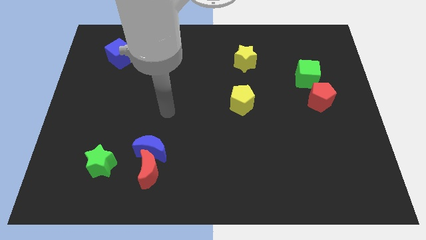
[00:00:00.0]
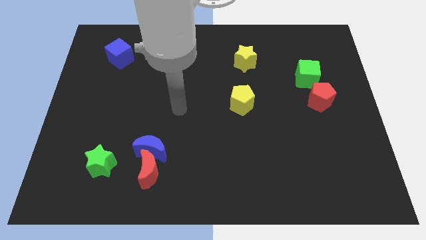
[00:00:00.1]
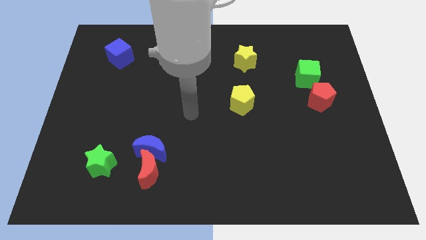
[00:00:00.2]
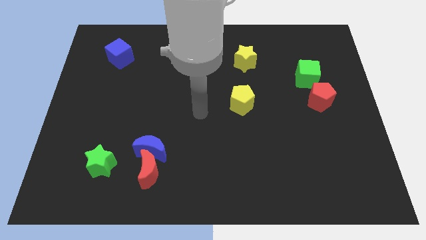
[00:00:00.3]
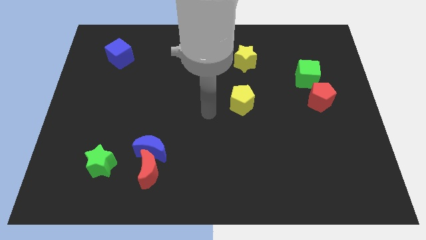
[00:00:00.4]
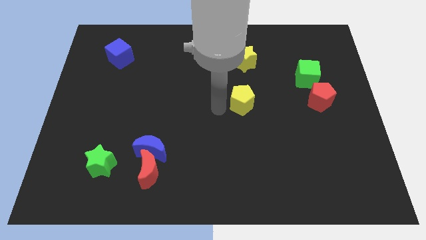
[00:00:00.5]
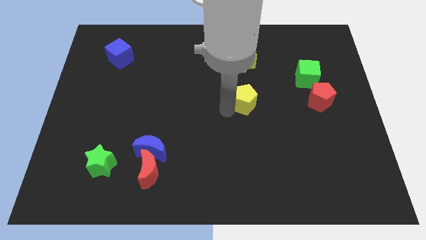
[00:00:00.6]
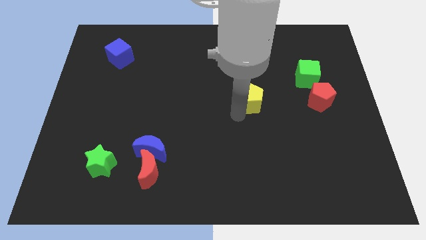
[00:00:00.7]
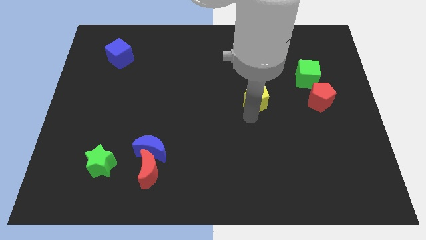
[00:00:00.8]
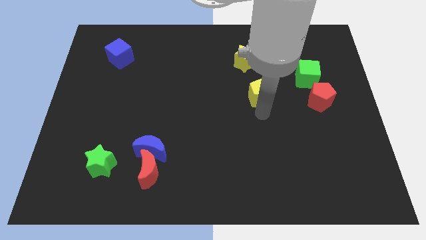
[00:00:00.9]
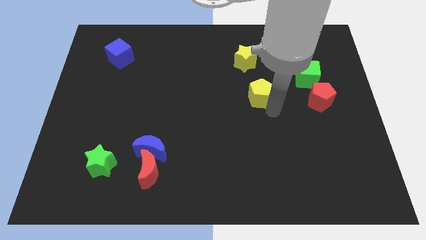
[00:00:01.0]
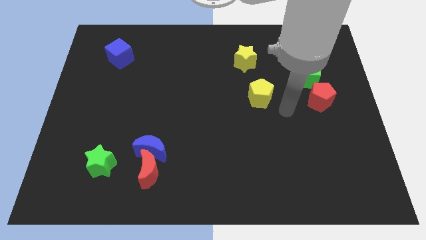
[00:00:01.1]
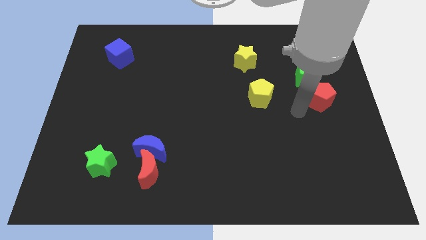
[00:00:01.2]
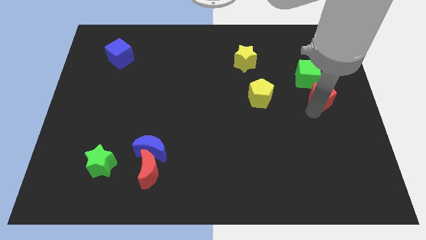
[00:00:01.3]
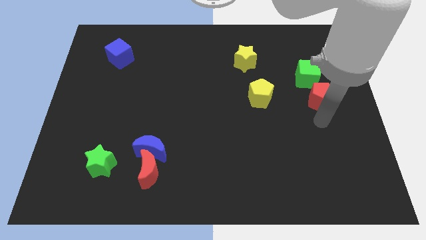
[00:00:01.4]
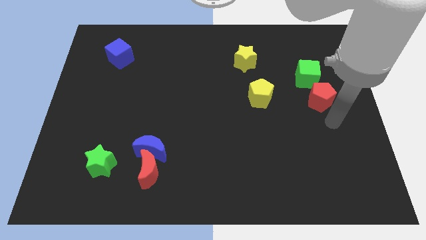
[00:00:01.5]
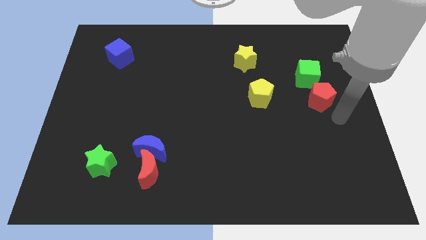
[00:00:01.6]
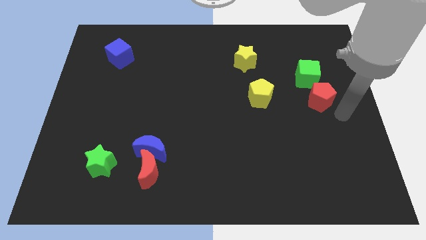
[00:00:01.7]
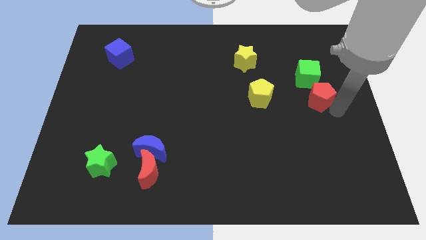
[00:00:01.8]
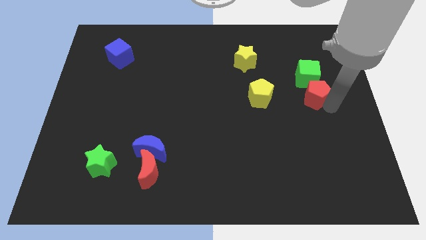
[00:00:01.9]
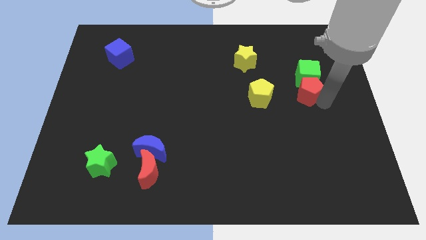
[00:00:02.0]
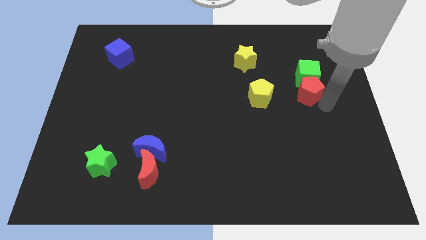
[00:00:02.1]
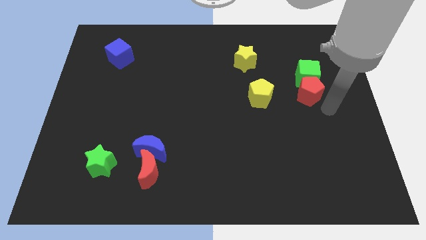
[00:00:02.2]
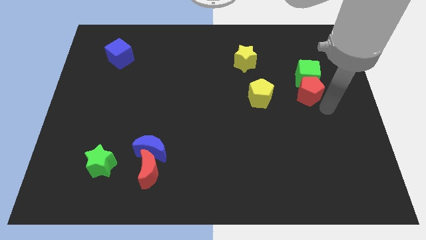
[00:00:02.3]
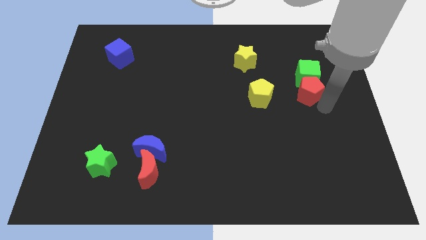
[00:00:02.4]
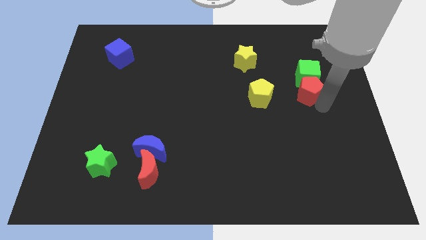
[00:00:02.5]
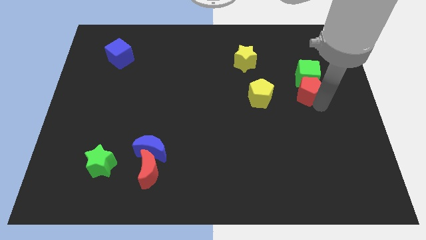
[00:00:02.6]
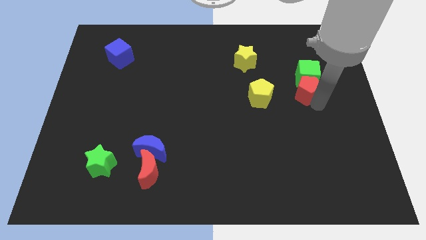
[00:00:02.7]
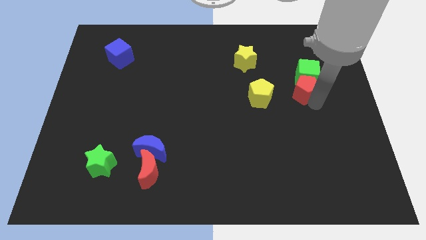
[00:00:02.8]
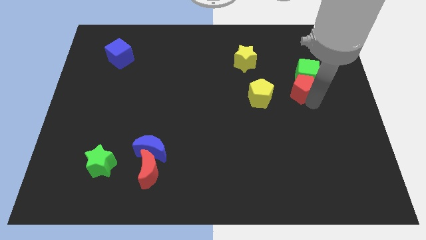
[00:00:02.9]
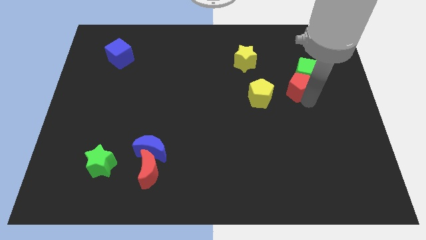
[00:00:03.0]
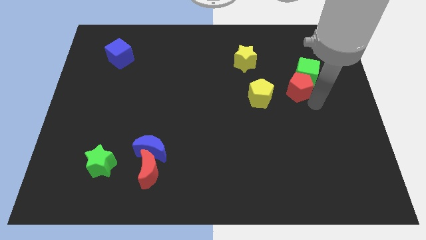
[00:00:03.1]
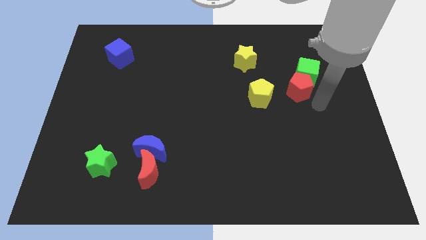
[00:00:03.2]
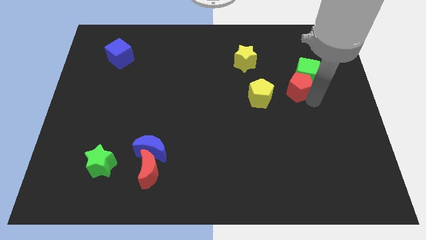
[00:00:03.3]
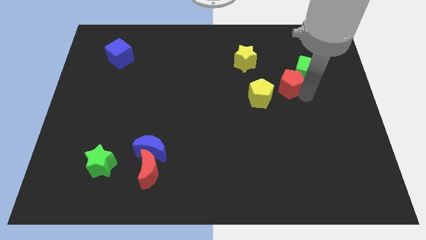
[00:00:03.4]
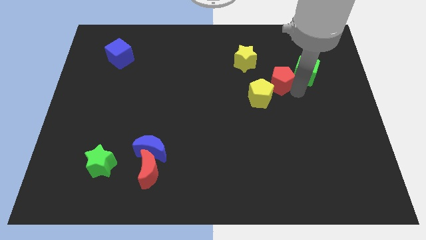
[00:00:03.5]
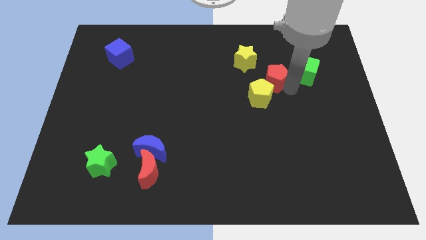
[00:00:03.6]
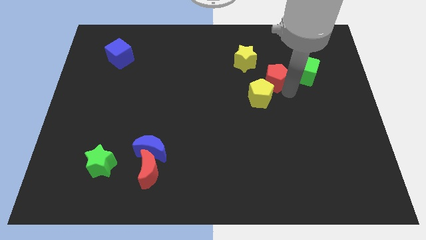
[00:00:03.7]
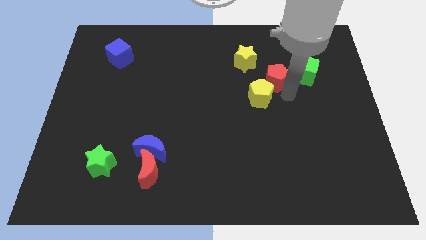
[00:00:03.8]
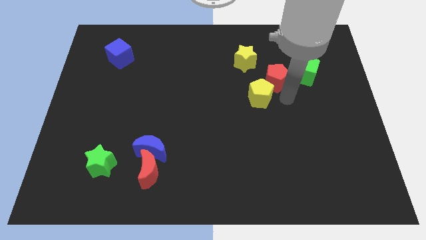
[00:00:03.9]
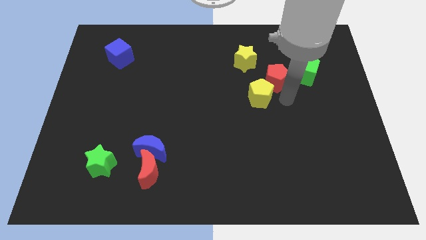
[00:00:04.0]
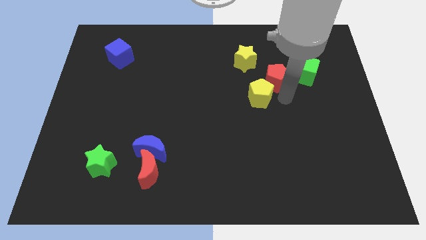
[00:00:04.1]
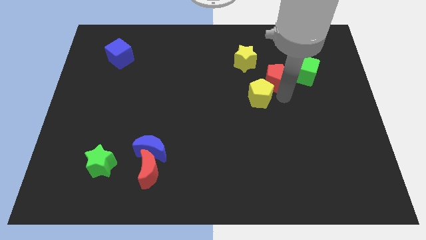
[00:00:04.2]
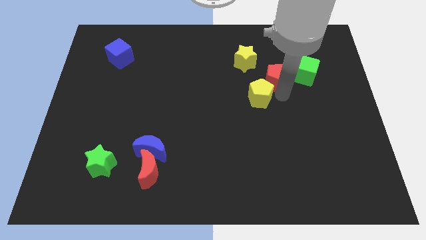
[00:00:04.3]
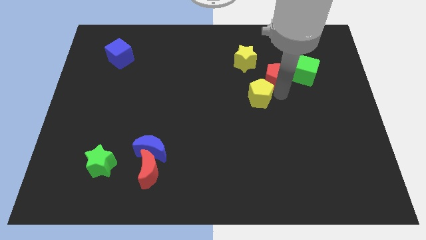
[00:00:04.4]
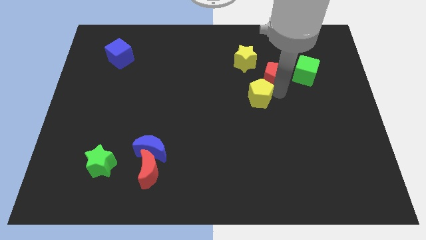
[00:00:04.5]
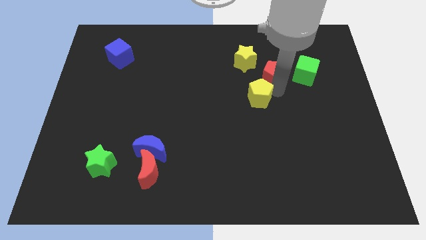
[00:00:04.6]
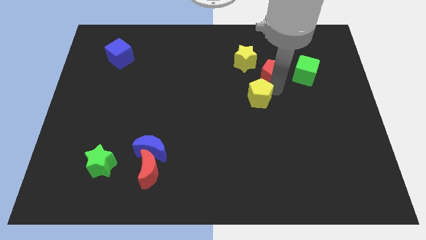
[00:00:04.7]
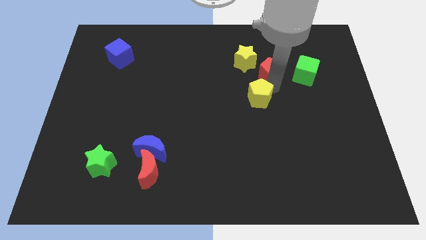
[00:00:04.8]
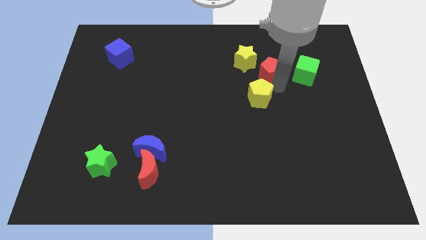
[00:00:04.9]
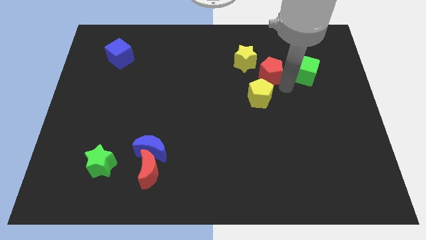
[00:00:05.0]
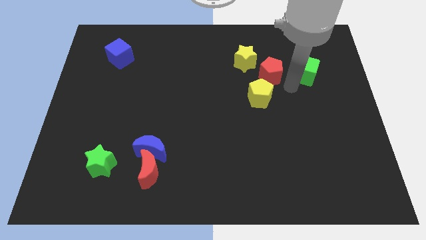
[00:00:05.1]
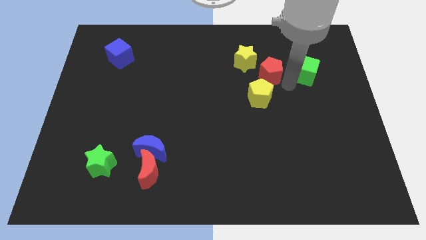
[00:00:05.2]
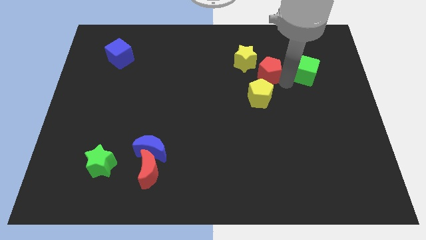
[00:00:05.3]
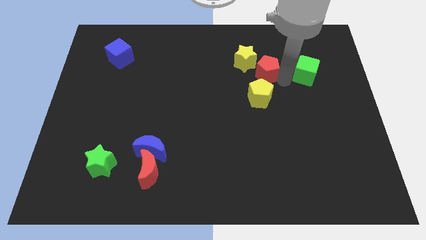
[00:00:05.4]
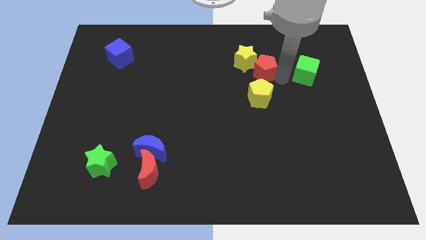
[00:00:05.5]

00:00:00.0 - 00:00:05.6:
move the red pentagon to the yellow star

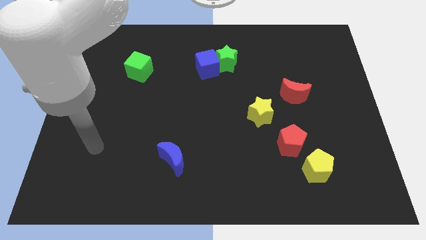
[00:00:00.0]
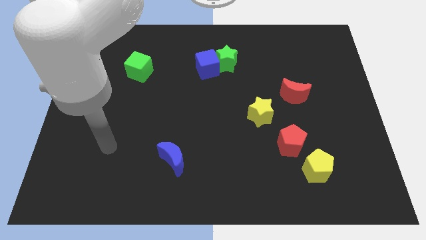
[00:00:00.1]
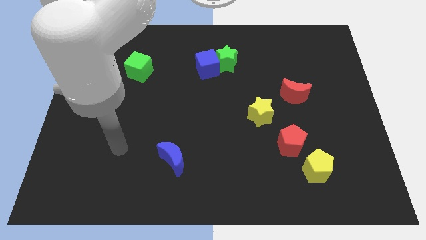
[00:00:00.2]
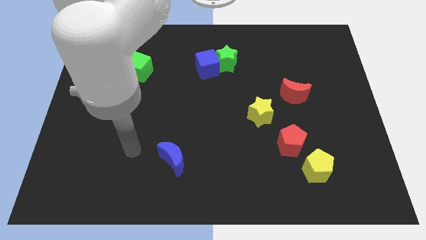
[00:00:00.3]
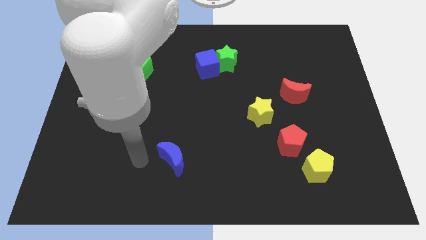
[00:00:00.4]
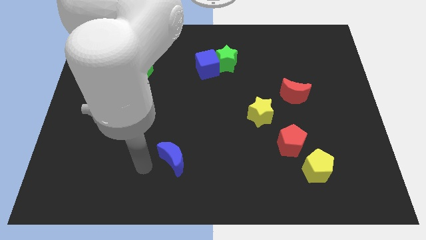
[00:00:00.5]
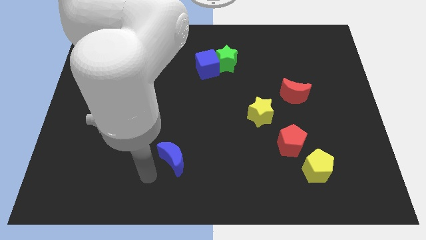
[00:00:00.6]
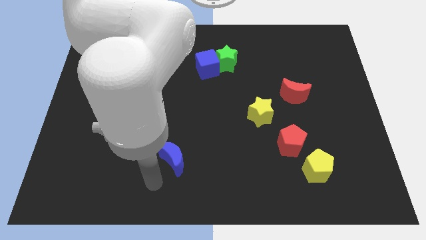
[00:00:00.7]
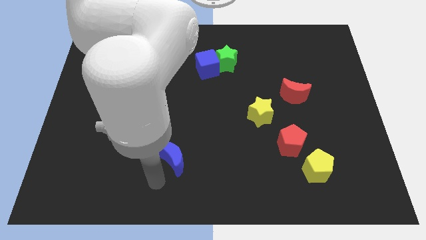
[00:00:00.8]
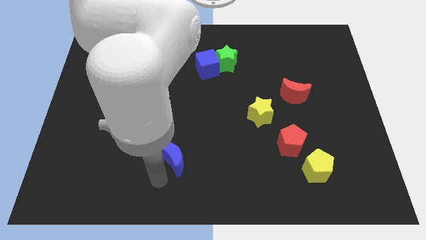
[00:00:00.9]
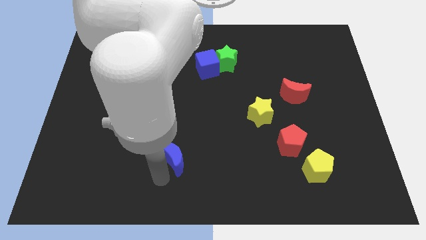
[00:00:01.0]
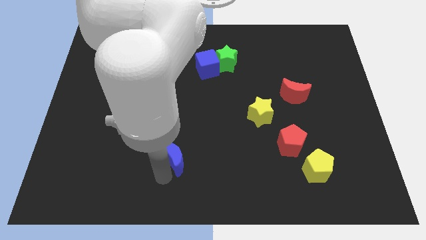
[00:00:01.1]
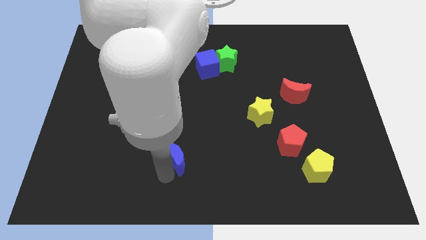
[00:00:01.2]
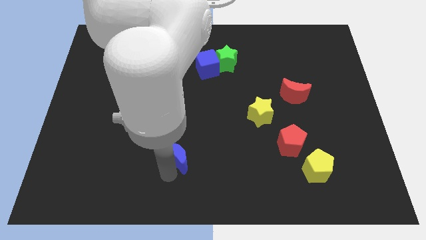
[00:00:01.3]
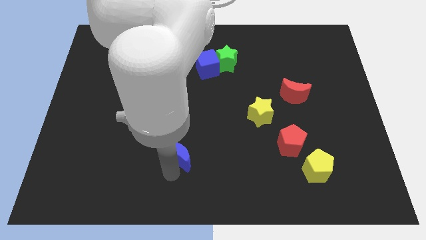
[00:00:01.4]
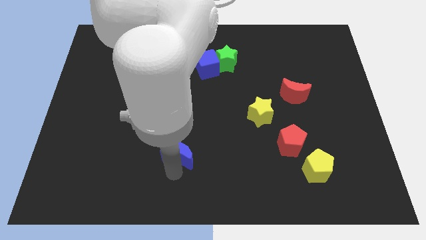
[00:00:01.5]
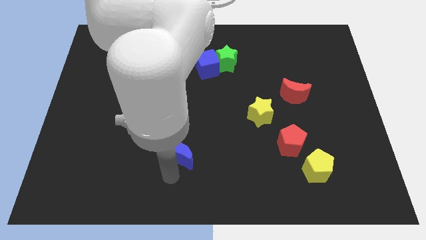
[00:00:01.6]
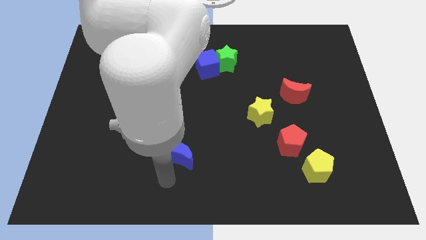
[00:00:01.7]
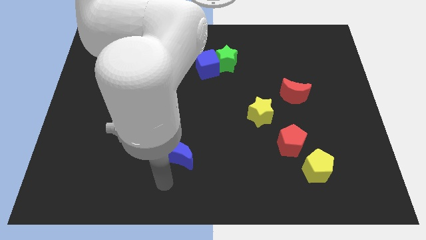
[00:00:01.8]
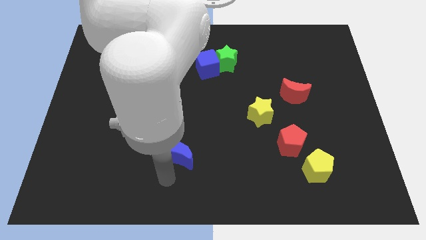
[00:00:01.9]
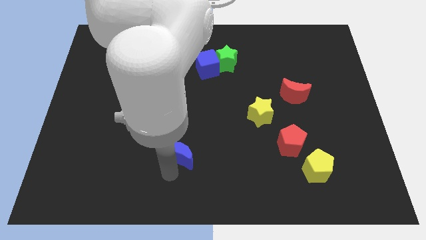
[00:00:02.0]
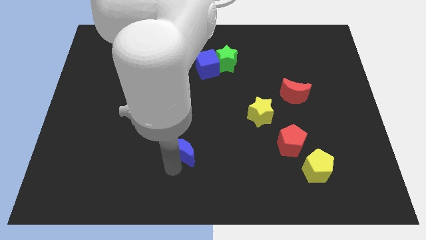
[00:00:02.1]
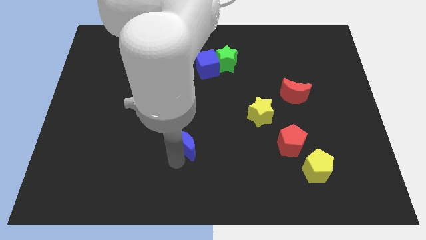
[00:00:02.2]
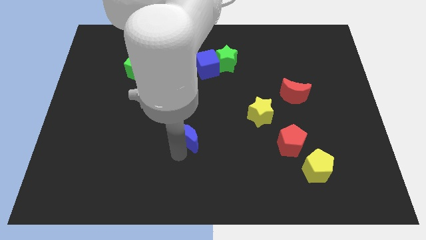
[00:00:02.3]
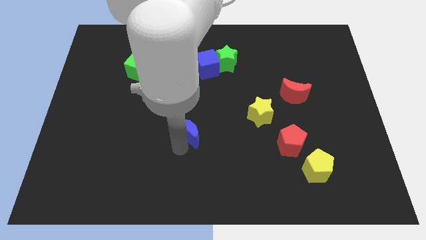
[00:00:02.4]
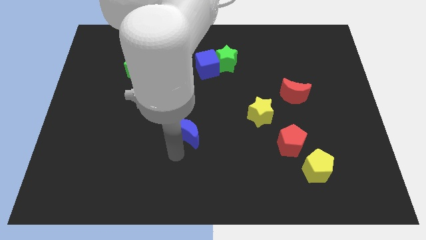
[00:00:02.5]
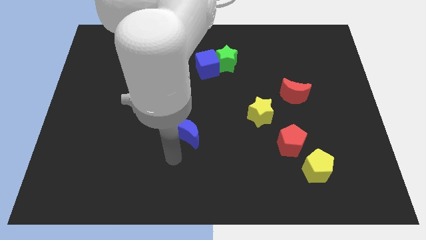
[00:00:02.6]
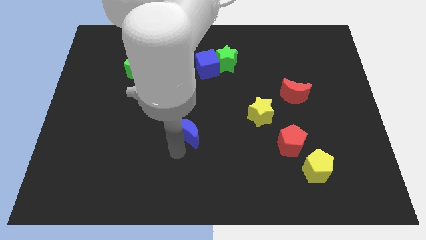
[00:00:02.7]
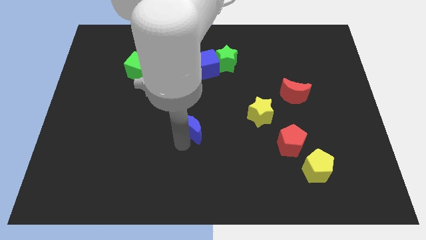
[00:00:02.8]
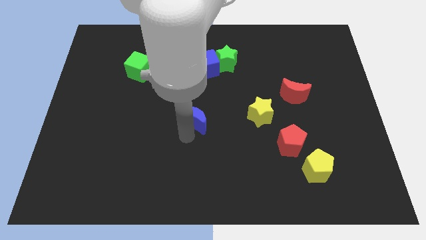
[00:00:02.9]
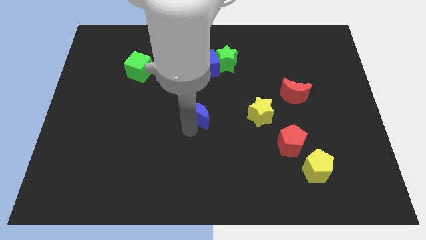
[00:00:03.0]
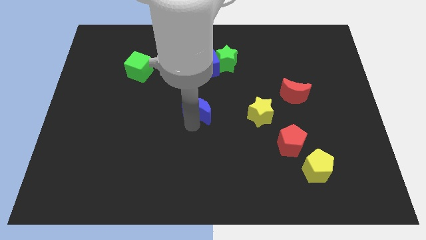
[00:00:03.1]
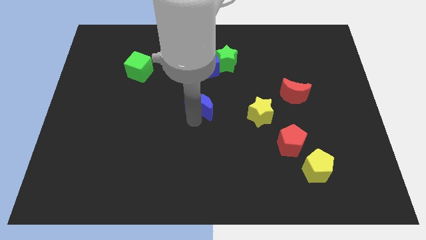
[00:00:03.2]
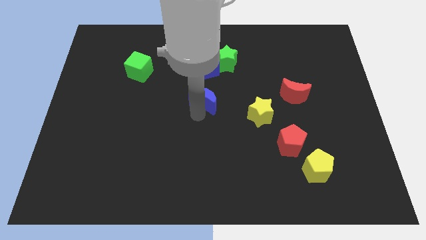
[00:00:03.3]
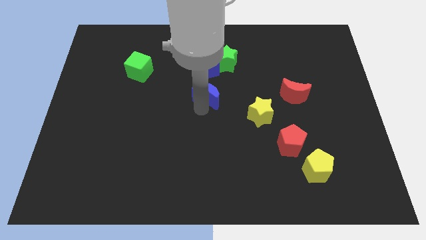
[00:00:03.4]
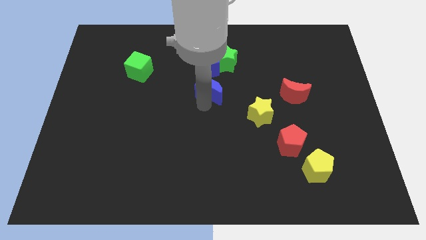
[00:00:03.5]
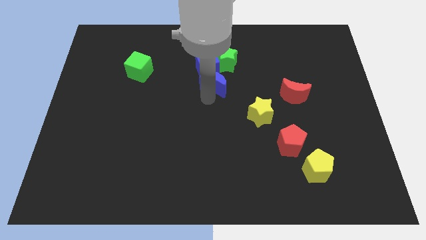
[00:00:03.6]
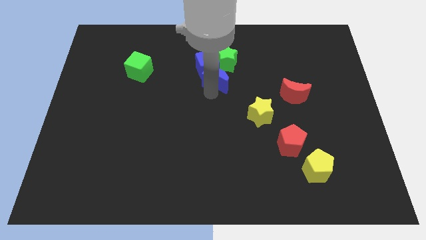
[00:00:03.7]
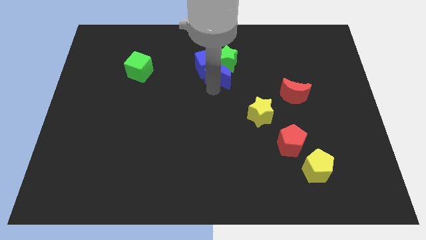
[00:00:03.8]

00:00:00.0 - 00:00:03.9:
move the blue moon towards the green star
